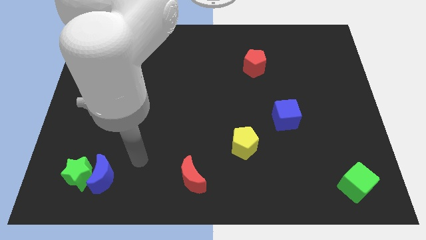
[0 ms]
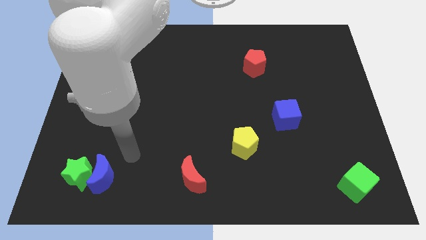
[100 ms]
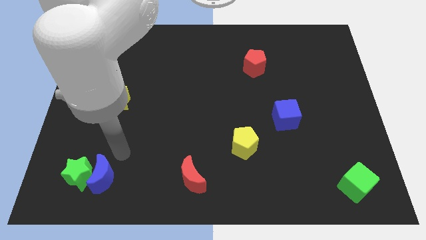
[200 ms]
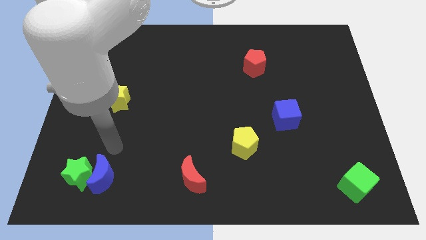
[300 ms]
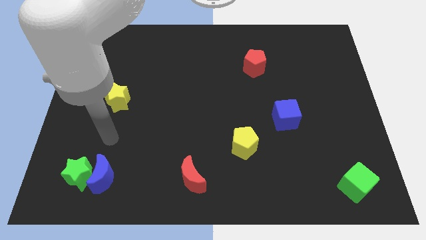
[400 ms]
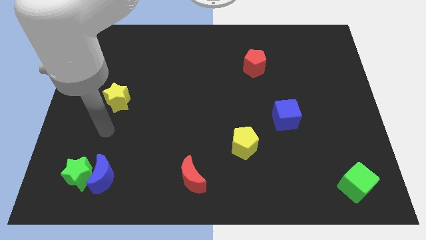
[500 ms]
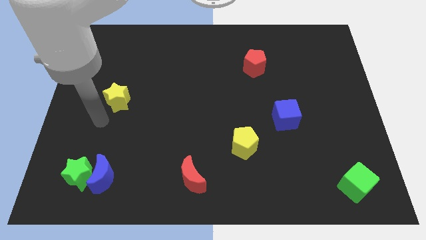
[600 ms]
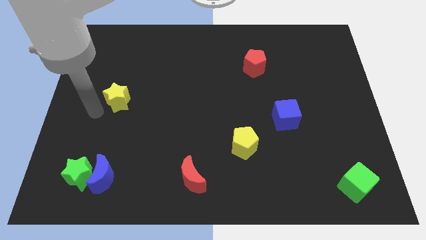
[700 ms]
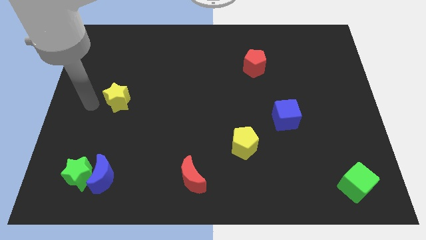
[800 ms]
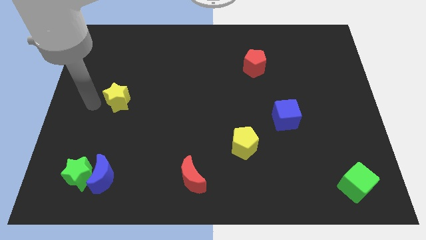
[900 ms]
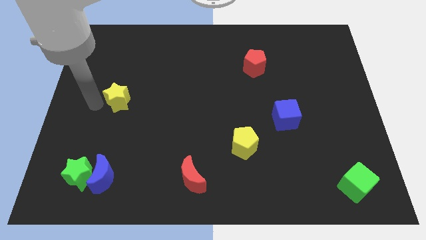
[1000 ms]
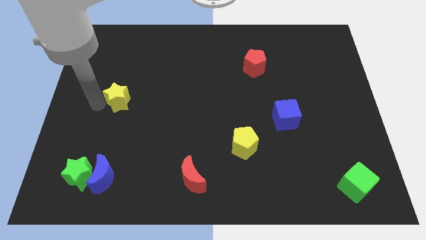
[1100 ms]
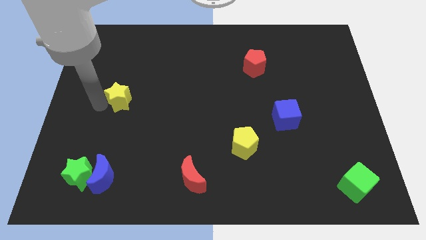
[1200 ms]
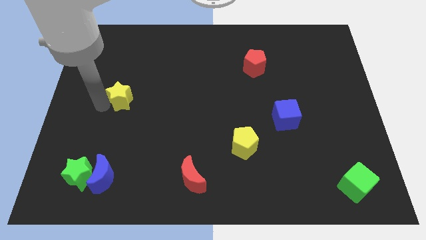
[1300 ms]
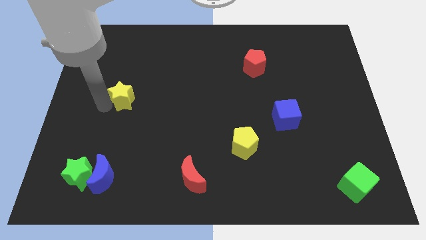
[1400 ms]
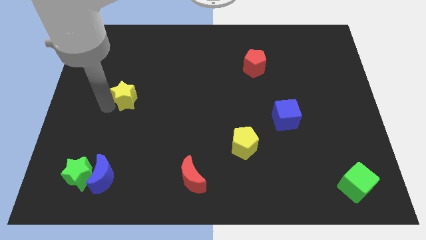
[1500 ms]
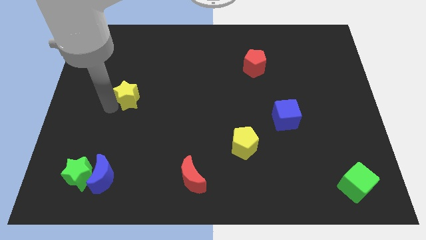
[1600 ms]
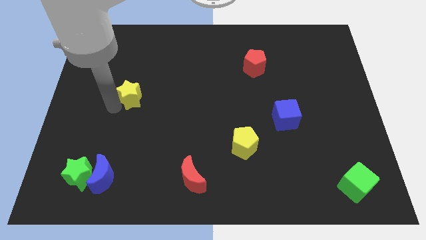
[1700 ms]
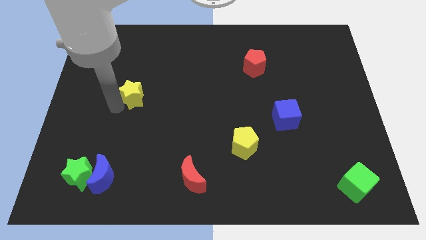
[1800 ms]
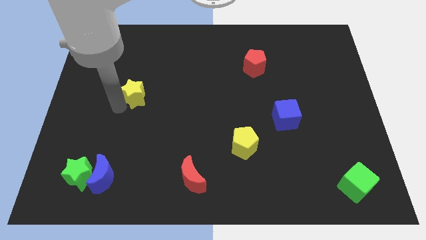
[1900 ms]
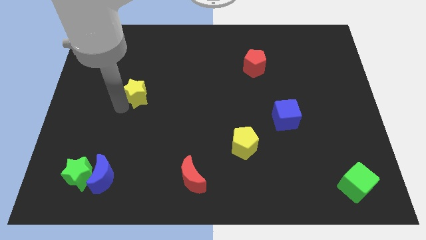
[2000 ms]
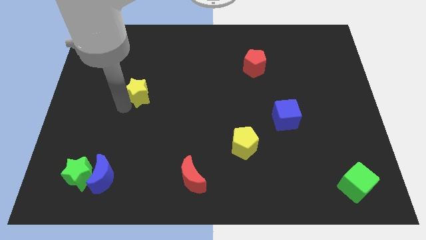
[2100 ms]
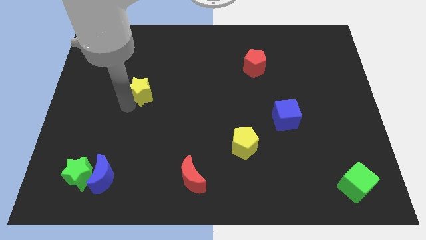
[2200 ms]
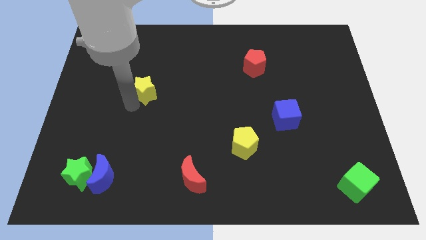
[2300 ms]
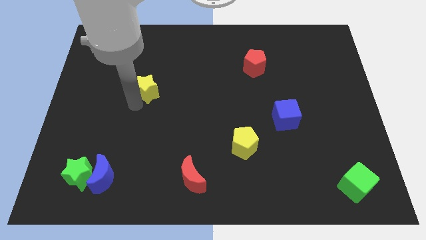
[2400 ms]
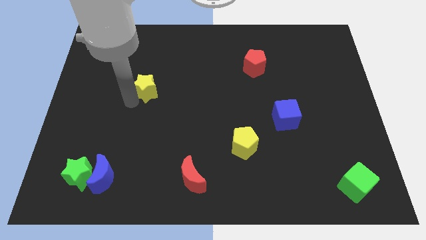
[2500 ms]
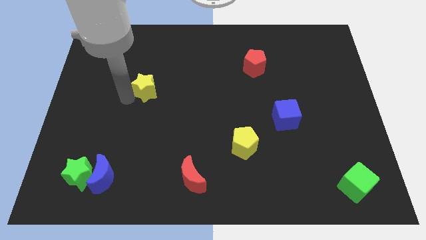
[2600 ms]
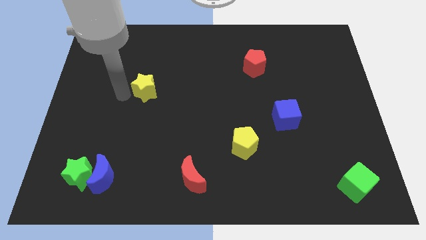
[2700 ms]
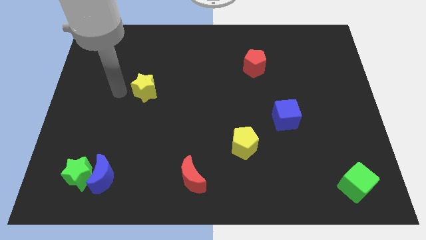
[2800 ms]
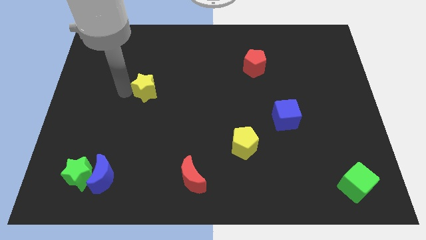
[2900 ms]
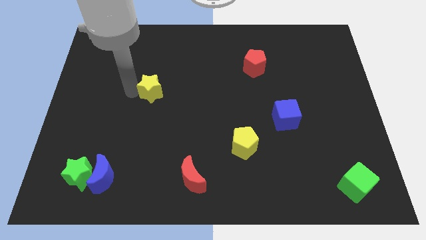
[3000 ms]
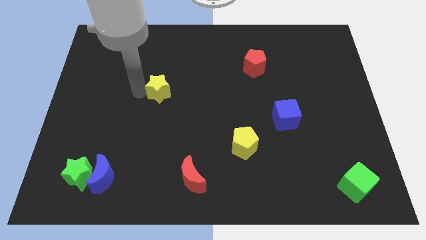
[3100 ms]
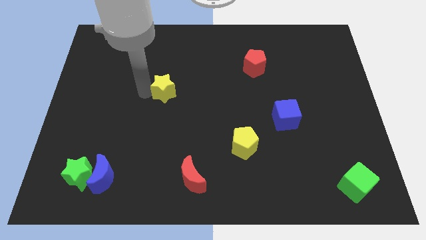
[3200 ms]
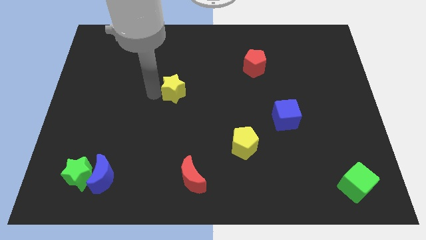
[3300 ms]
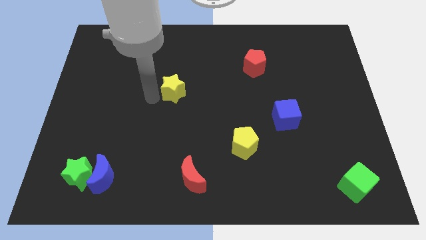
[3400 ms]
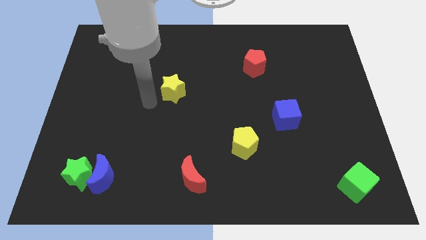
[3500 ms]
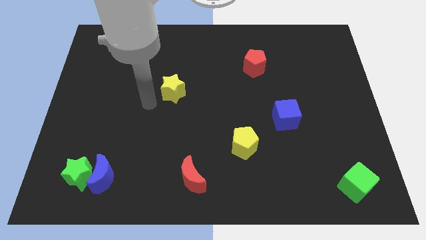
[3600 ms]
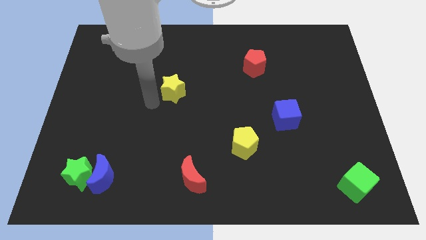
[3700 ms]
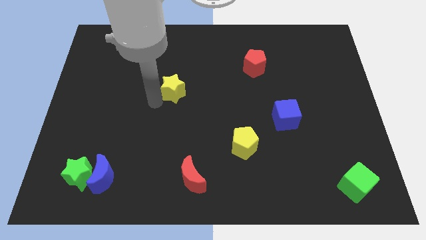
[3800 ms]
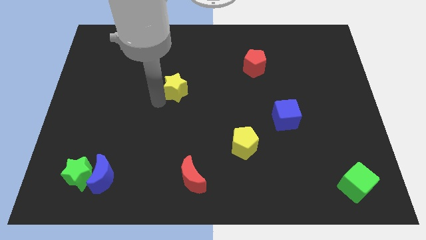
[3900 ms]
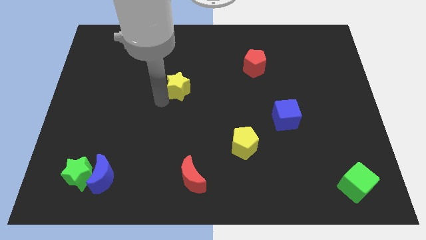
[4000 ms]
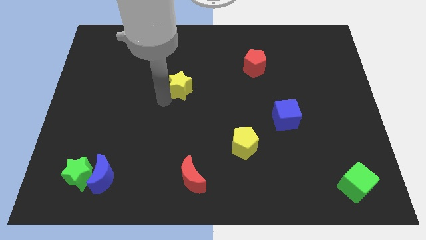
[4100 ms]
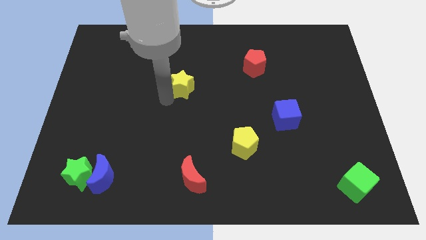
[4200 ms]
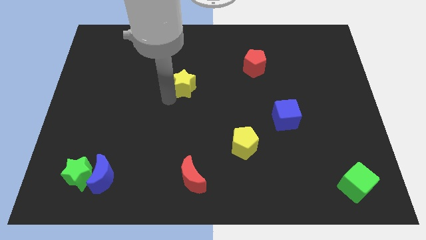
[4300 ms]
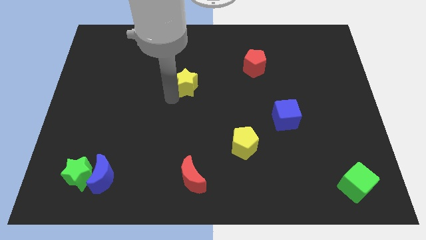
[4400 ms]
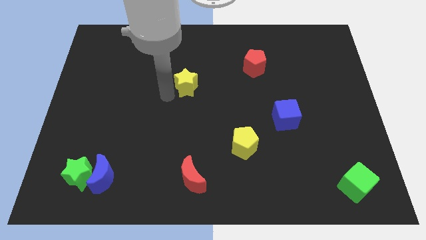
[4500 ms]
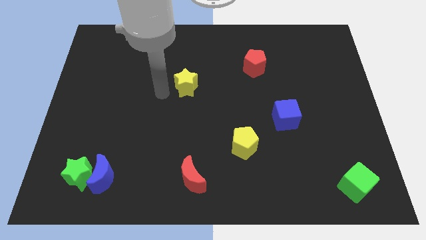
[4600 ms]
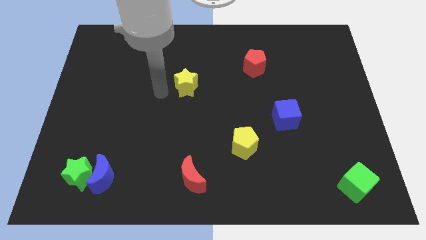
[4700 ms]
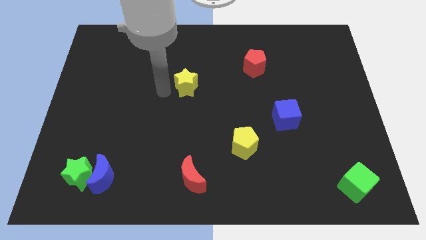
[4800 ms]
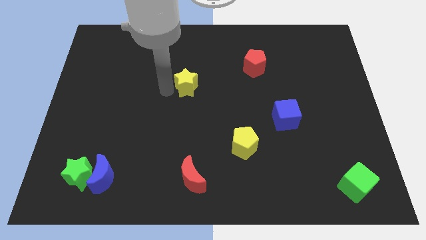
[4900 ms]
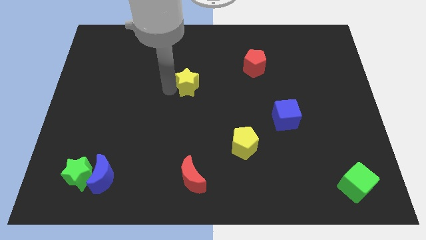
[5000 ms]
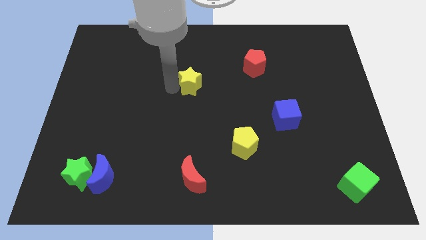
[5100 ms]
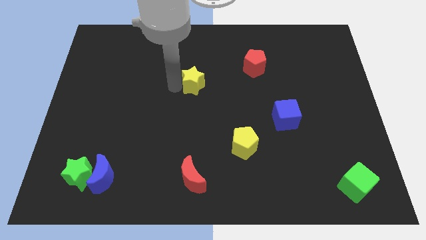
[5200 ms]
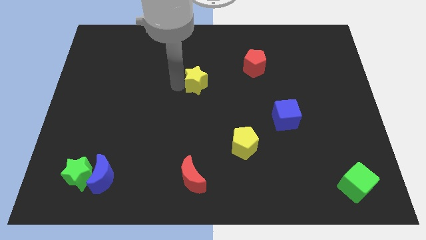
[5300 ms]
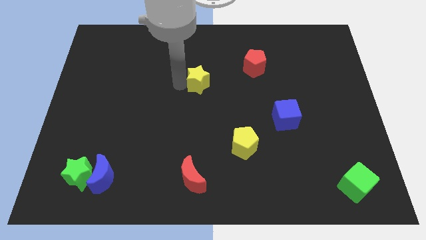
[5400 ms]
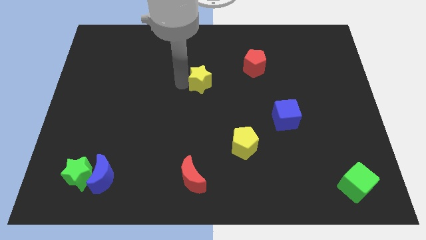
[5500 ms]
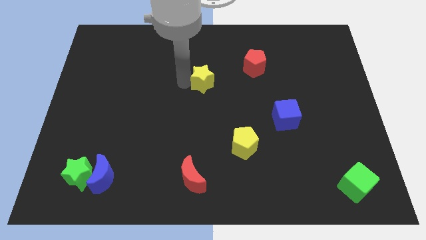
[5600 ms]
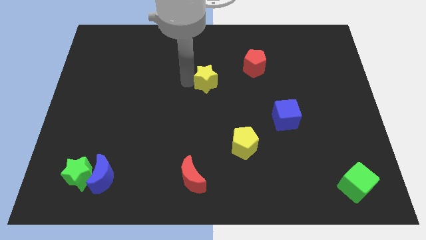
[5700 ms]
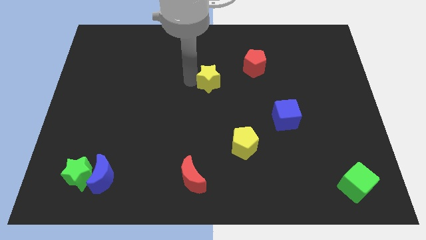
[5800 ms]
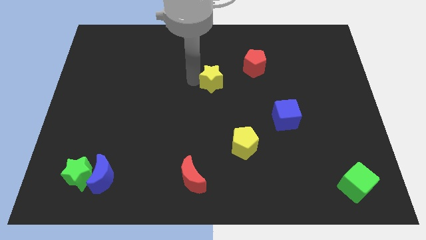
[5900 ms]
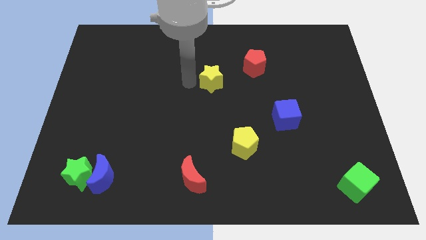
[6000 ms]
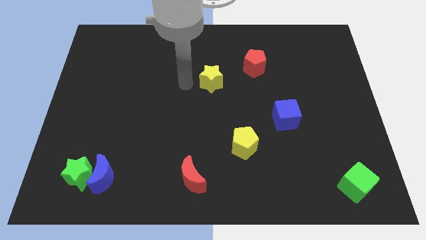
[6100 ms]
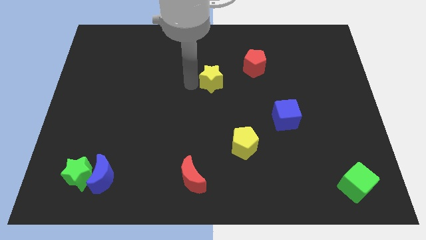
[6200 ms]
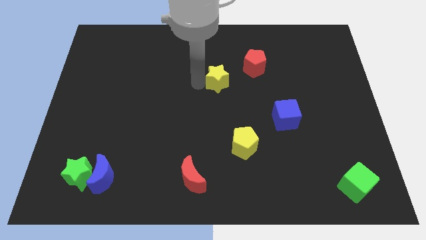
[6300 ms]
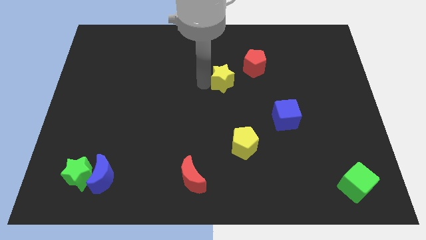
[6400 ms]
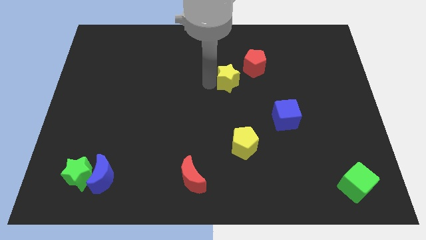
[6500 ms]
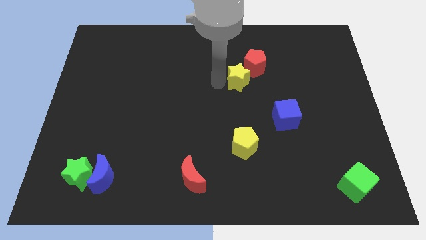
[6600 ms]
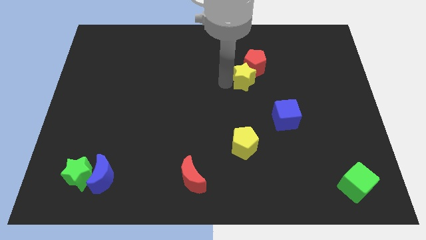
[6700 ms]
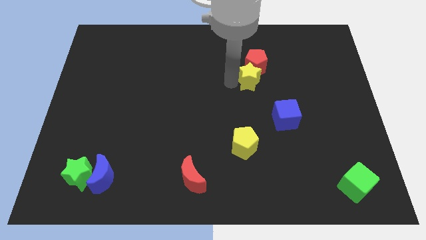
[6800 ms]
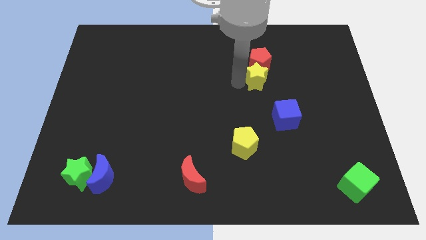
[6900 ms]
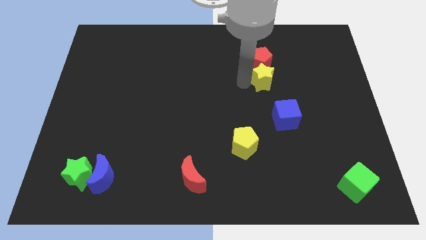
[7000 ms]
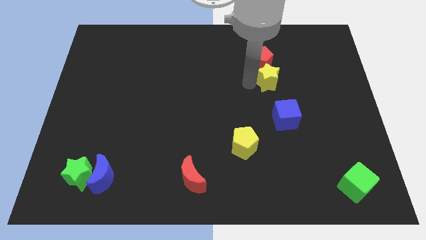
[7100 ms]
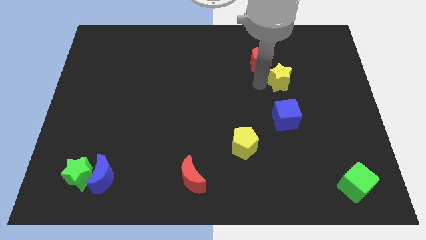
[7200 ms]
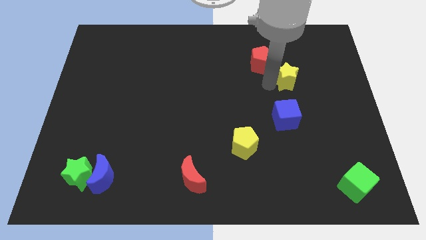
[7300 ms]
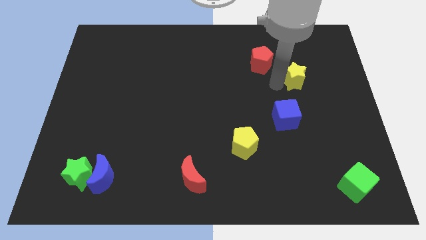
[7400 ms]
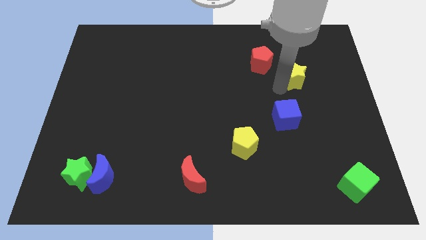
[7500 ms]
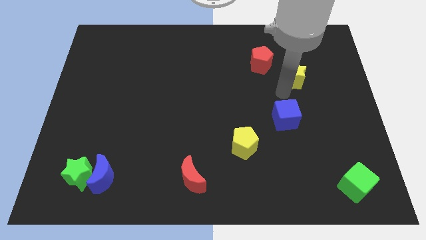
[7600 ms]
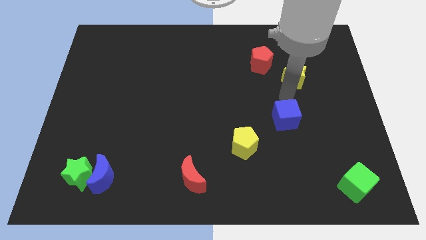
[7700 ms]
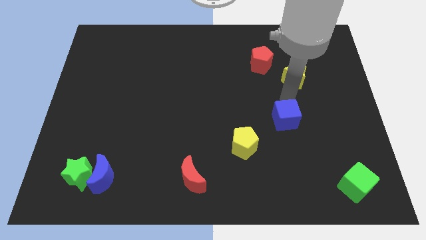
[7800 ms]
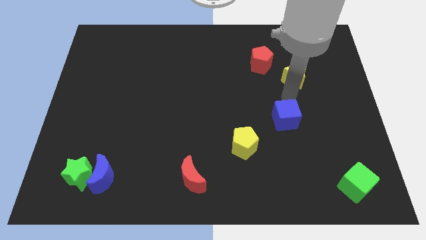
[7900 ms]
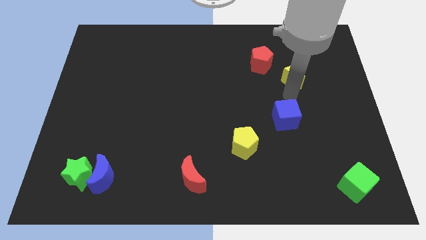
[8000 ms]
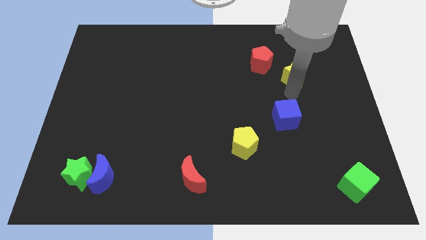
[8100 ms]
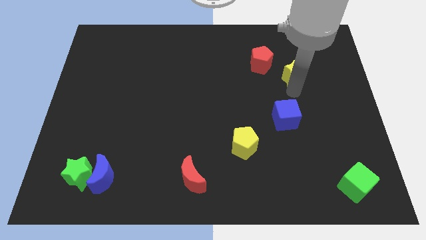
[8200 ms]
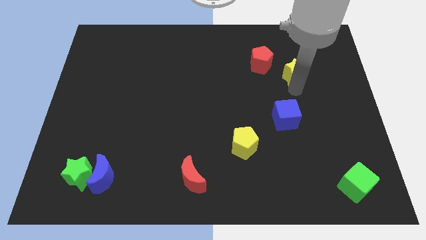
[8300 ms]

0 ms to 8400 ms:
move the yellow star right of the red pentagon
